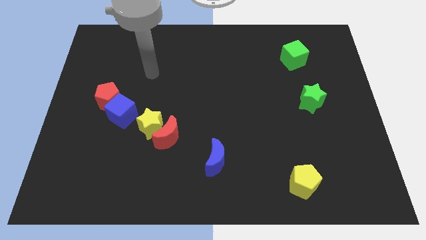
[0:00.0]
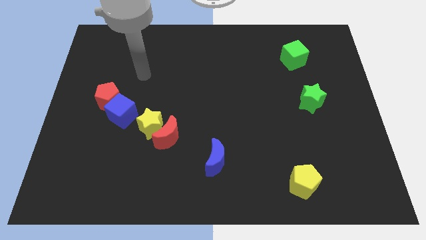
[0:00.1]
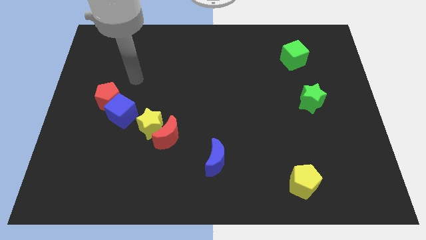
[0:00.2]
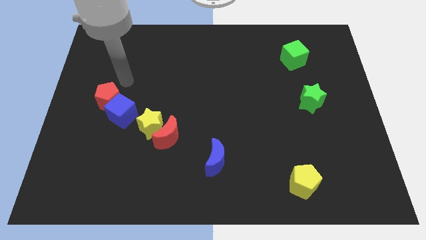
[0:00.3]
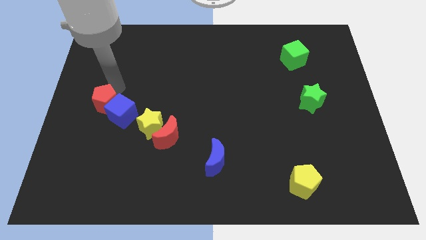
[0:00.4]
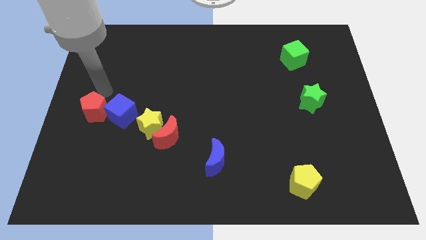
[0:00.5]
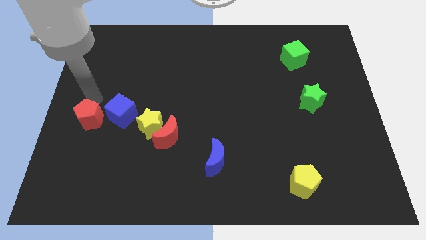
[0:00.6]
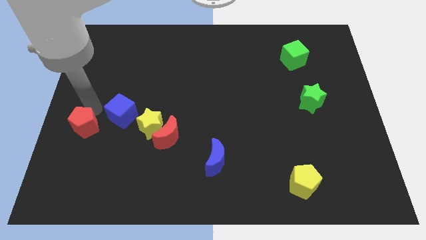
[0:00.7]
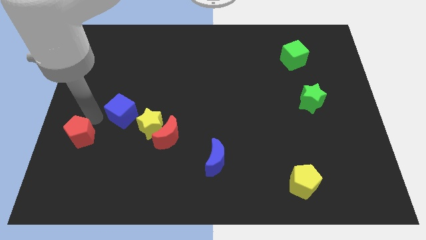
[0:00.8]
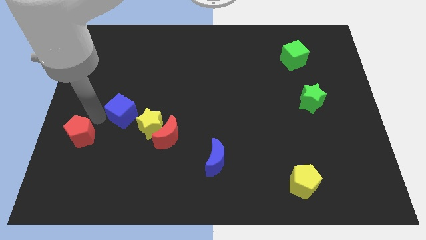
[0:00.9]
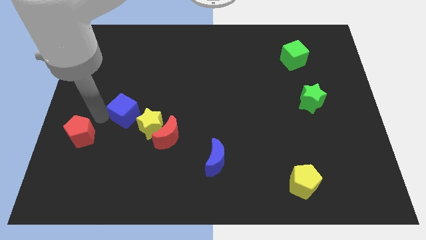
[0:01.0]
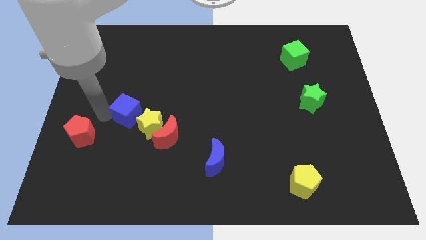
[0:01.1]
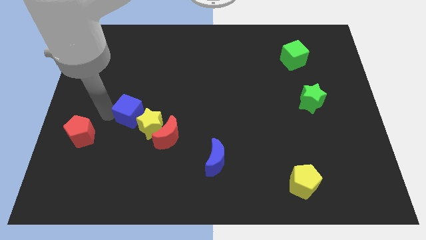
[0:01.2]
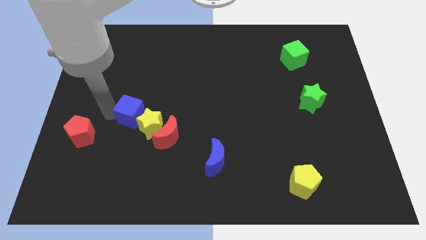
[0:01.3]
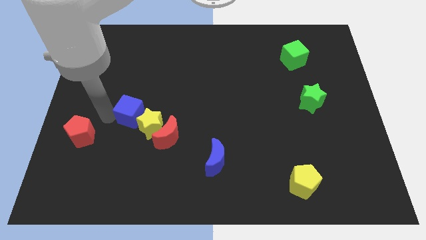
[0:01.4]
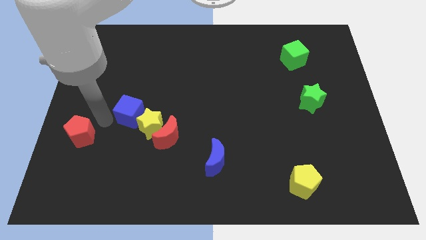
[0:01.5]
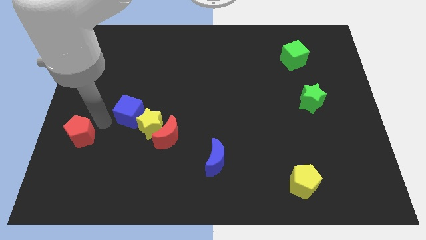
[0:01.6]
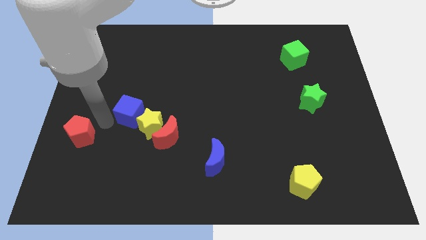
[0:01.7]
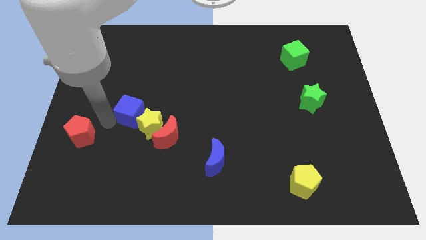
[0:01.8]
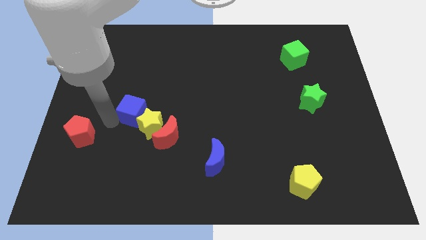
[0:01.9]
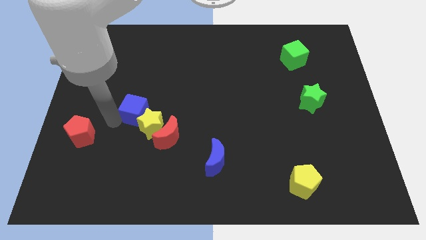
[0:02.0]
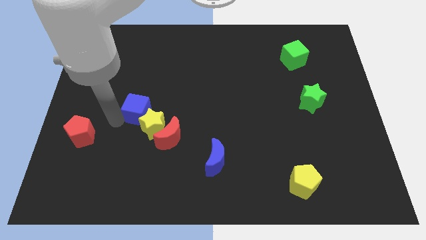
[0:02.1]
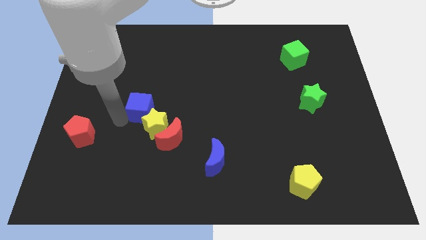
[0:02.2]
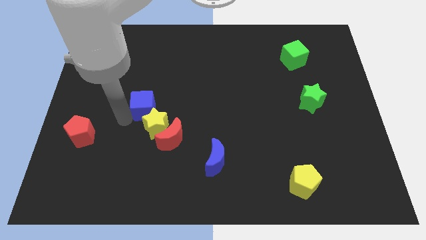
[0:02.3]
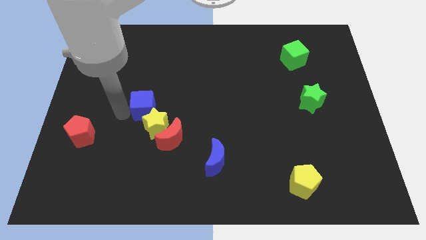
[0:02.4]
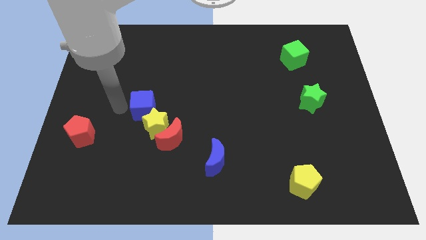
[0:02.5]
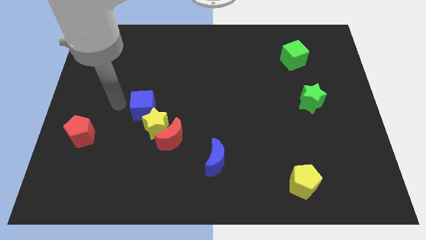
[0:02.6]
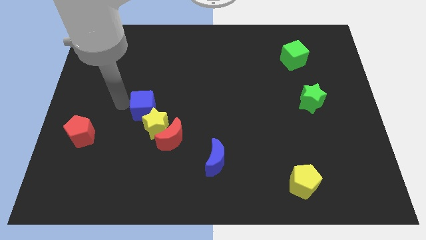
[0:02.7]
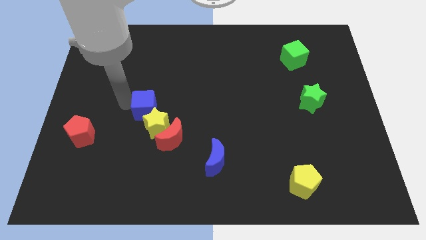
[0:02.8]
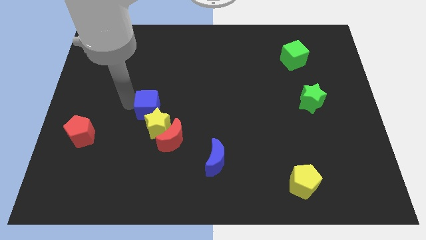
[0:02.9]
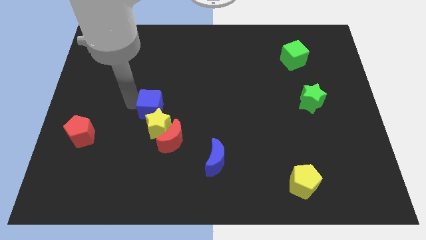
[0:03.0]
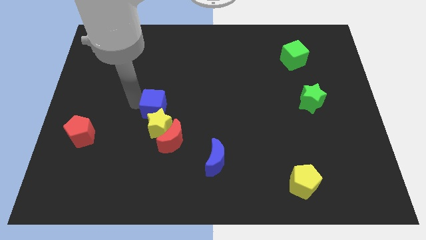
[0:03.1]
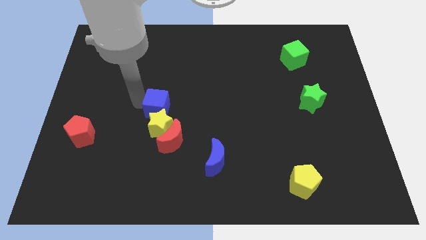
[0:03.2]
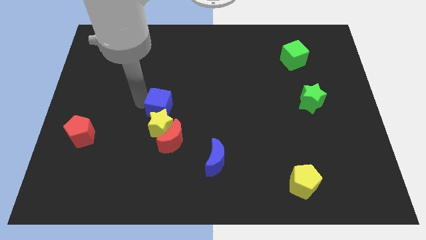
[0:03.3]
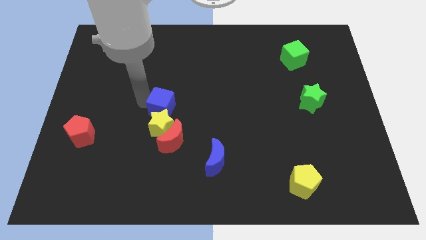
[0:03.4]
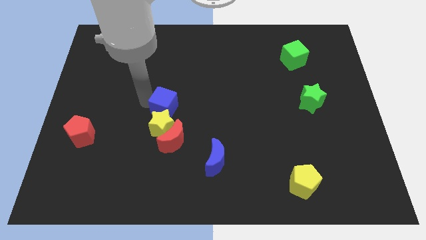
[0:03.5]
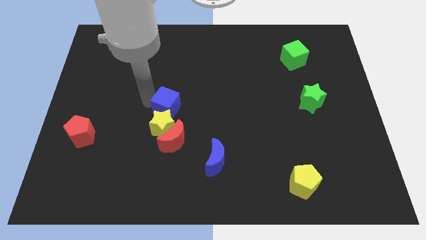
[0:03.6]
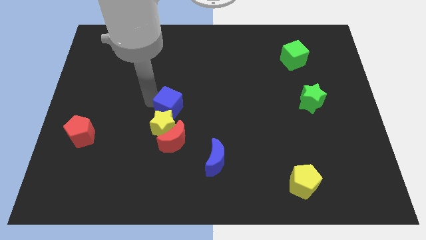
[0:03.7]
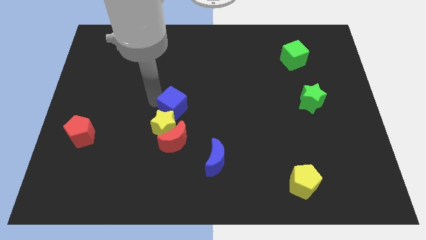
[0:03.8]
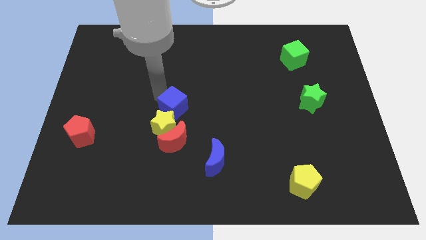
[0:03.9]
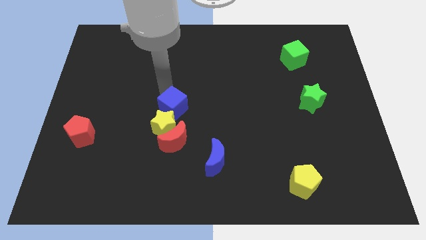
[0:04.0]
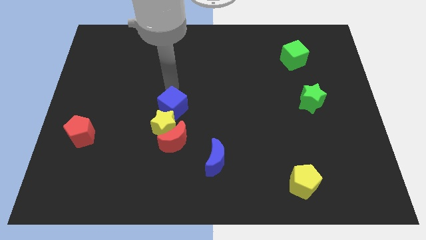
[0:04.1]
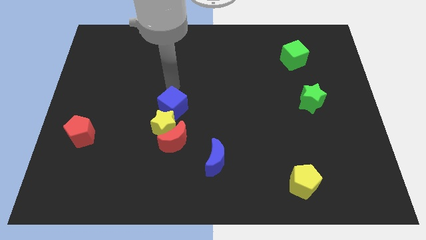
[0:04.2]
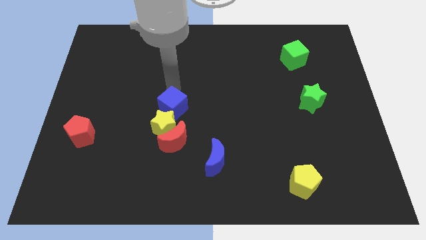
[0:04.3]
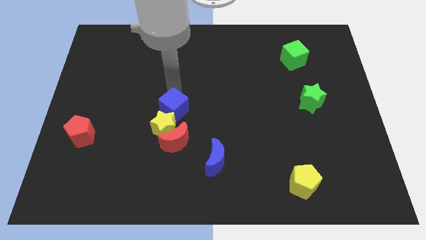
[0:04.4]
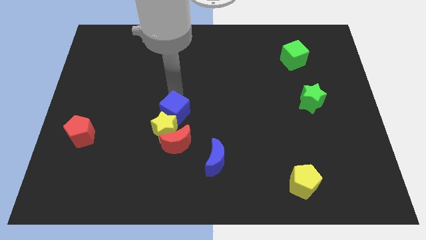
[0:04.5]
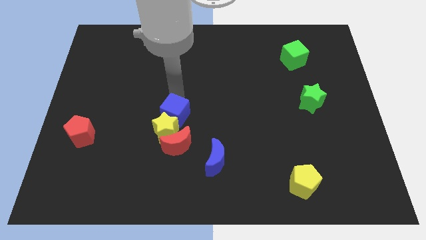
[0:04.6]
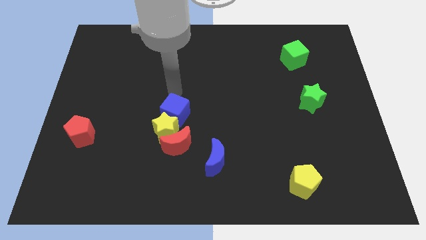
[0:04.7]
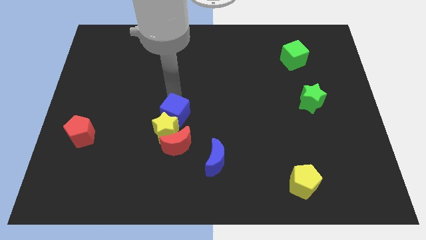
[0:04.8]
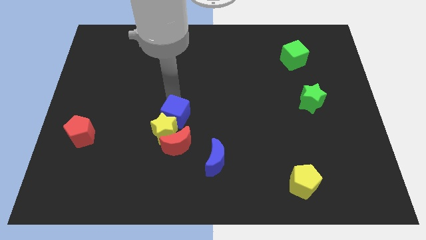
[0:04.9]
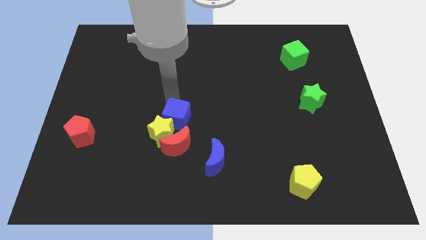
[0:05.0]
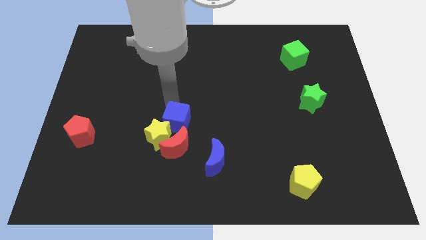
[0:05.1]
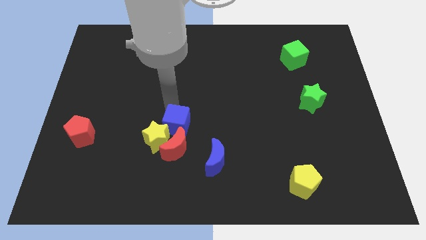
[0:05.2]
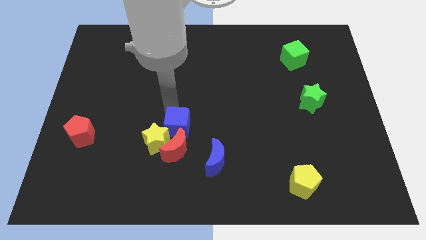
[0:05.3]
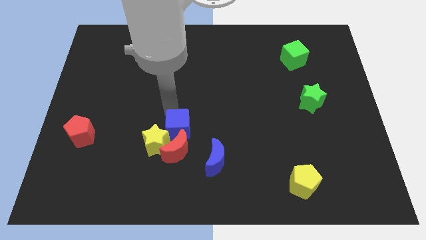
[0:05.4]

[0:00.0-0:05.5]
slide the blue cube close to the red moon

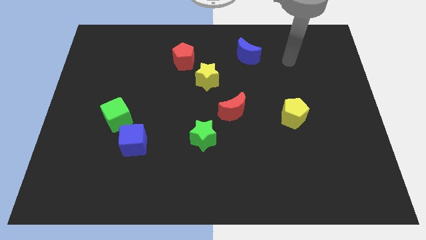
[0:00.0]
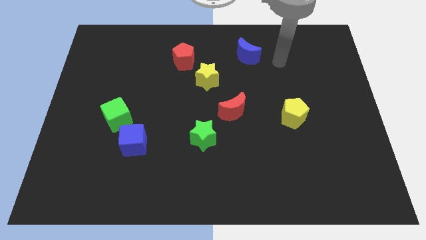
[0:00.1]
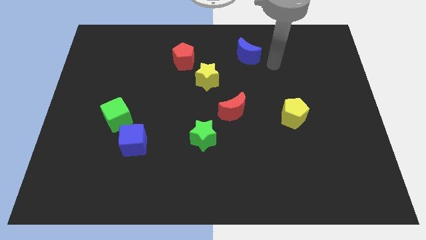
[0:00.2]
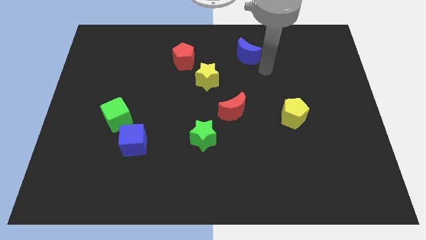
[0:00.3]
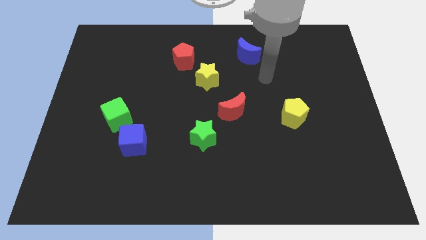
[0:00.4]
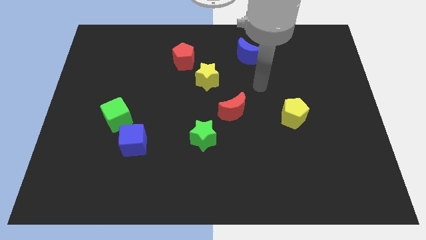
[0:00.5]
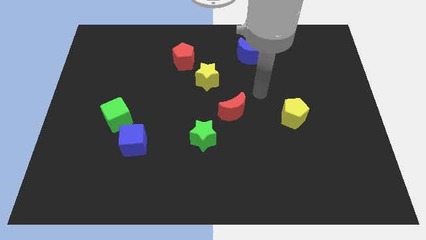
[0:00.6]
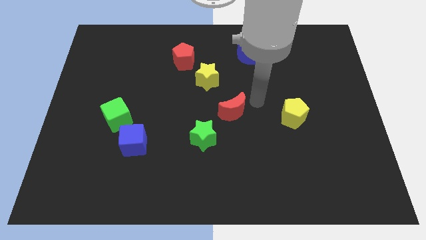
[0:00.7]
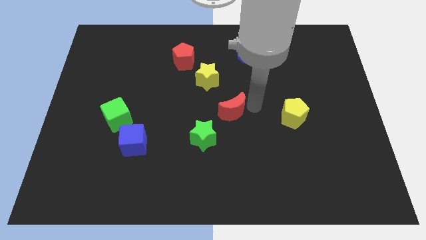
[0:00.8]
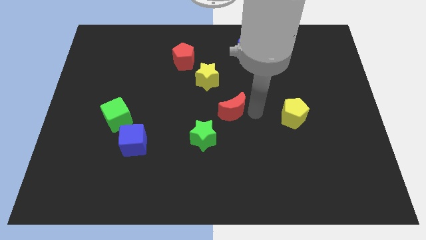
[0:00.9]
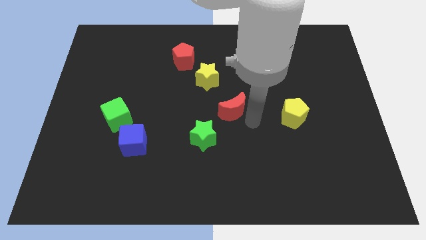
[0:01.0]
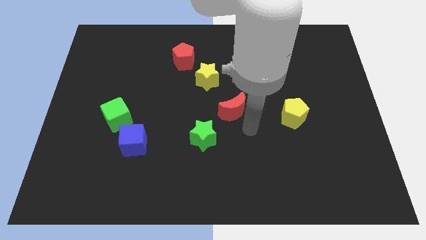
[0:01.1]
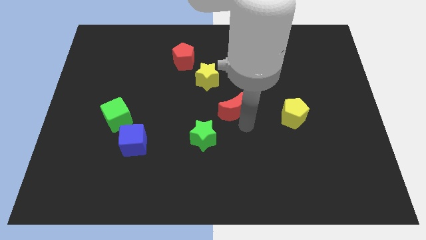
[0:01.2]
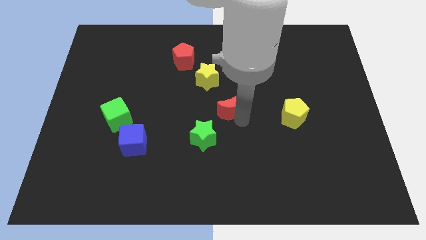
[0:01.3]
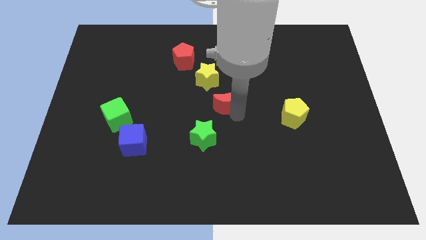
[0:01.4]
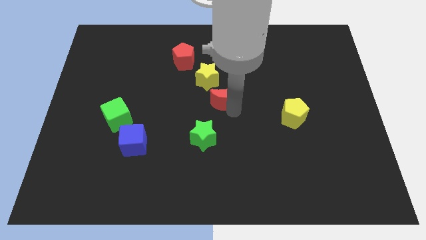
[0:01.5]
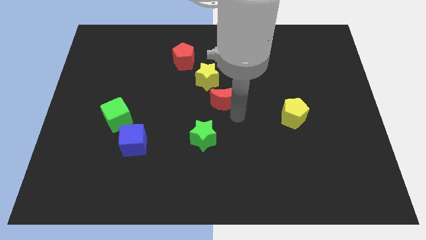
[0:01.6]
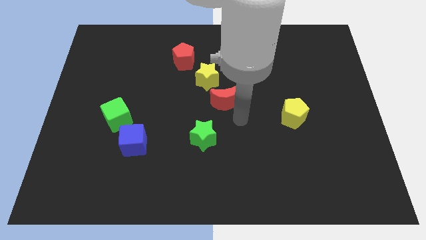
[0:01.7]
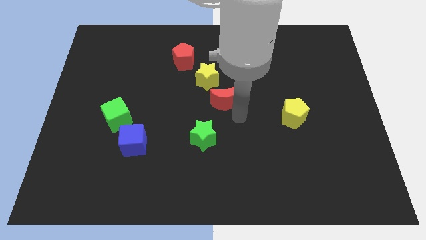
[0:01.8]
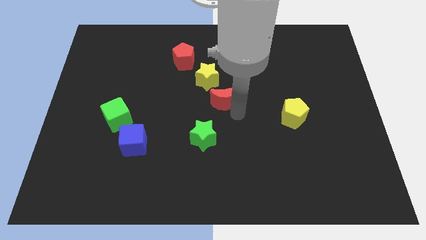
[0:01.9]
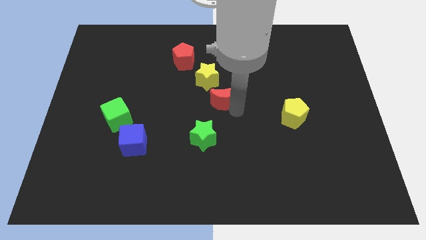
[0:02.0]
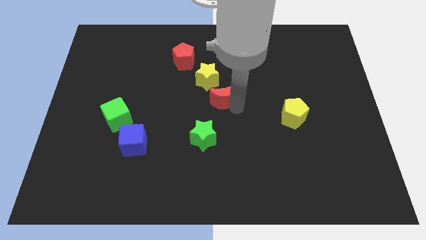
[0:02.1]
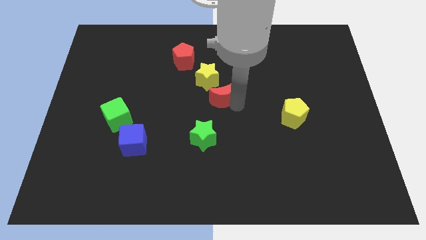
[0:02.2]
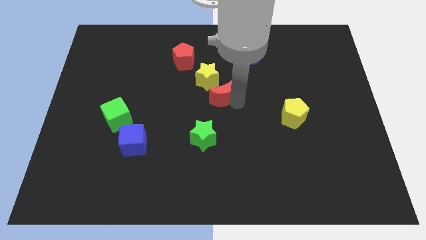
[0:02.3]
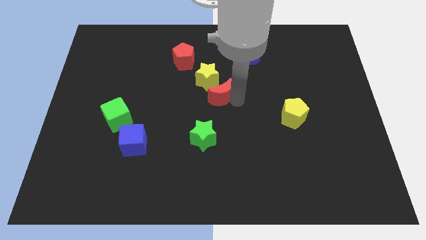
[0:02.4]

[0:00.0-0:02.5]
slide the red moon close to the yellow star
